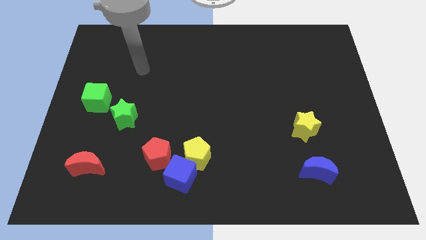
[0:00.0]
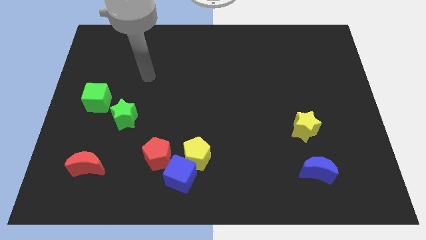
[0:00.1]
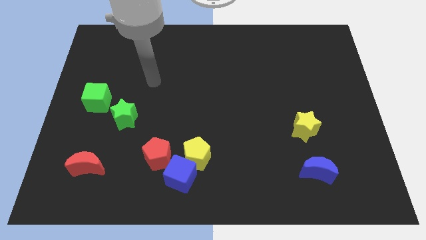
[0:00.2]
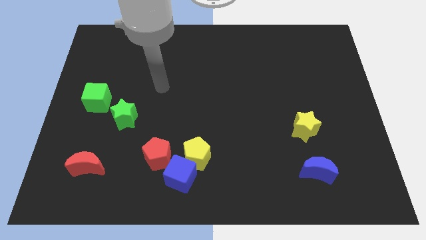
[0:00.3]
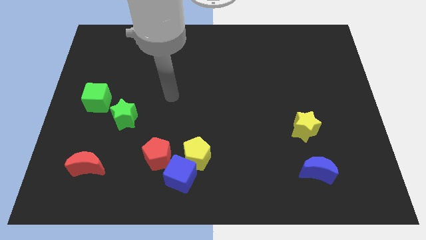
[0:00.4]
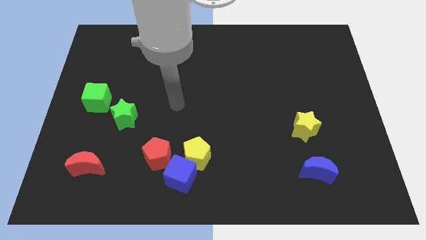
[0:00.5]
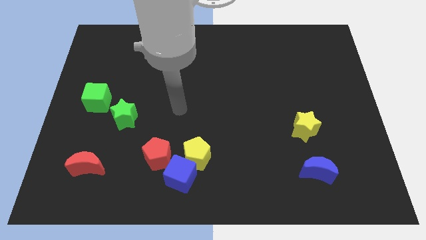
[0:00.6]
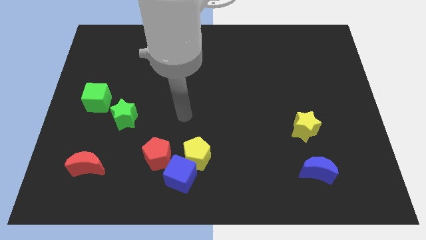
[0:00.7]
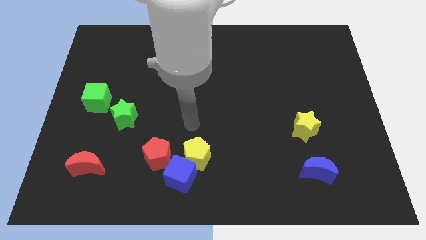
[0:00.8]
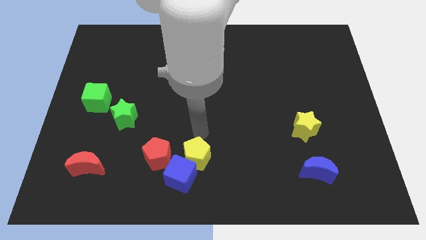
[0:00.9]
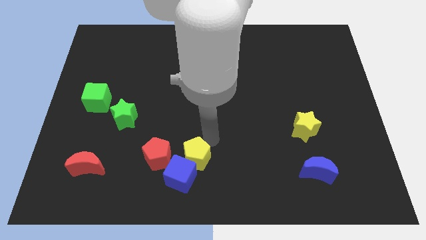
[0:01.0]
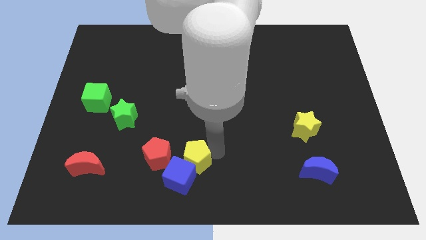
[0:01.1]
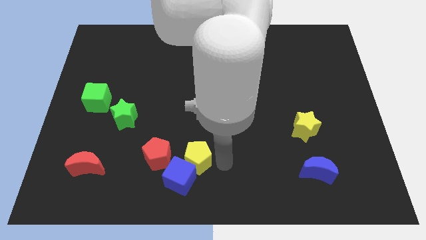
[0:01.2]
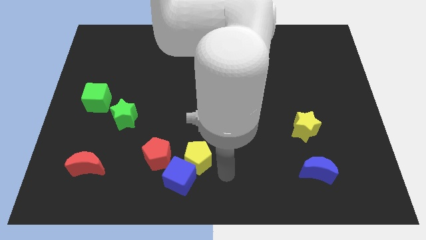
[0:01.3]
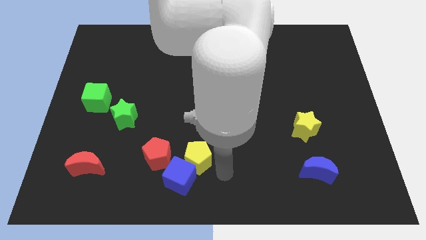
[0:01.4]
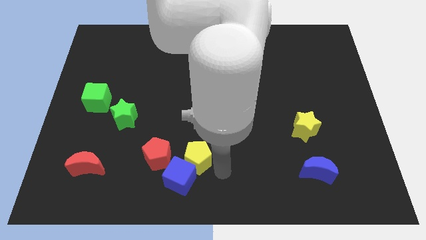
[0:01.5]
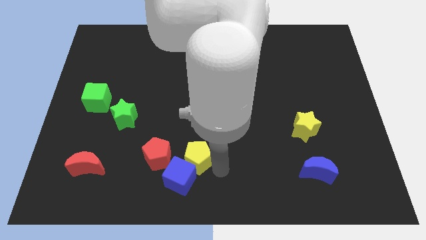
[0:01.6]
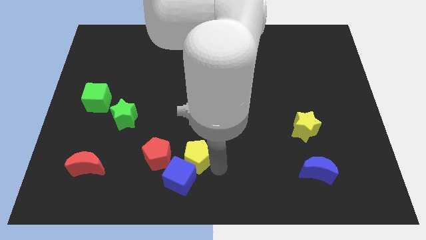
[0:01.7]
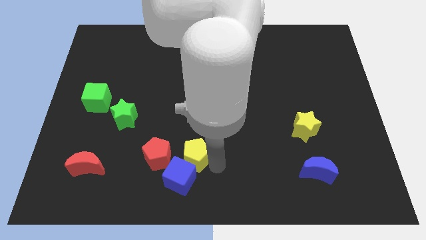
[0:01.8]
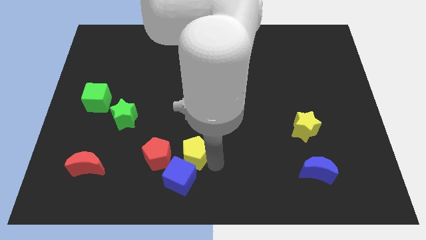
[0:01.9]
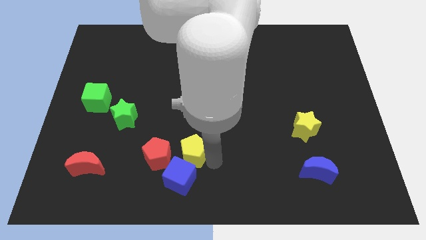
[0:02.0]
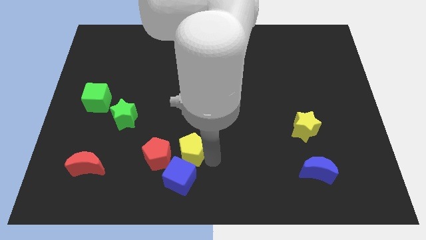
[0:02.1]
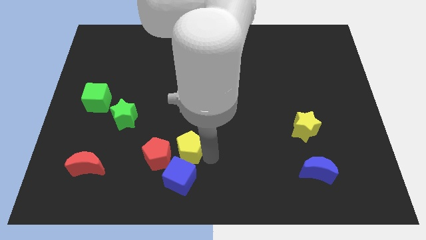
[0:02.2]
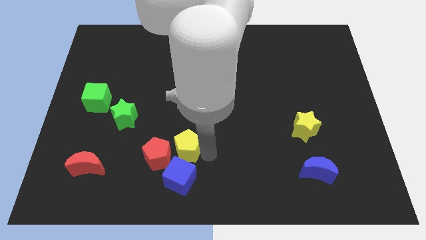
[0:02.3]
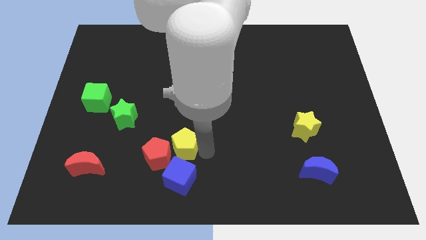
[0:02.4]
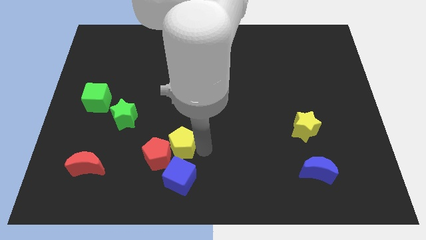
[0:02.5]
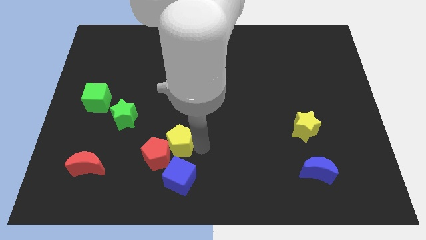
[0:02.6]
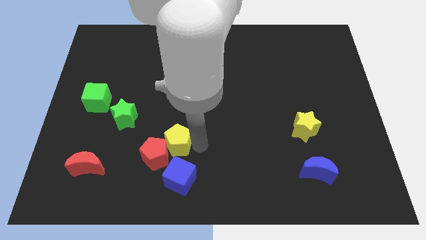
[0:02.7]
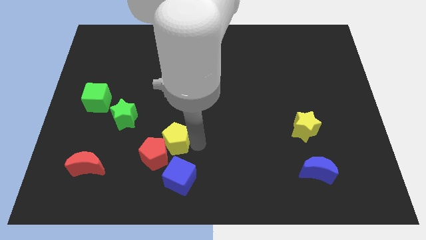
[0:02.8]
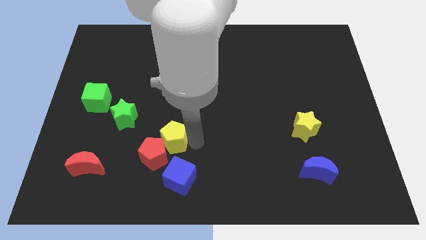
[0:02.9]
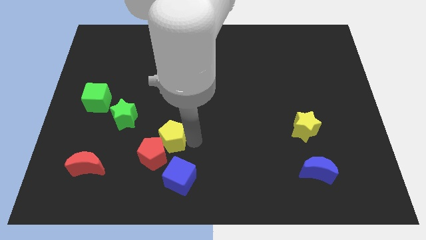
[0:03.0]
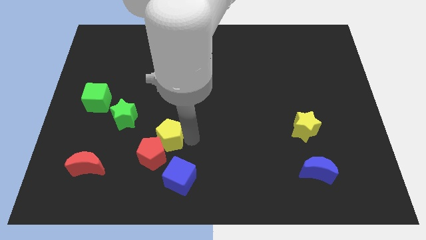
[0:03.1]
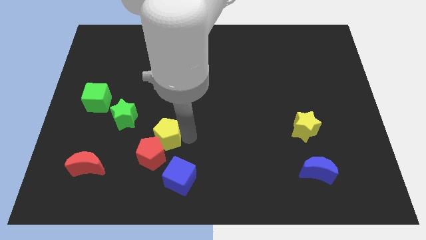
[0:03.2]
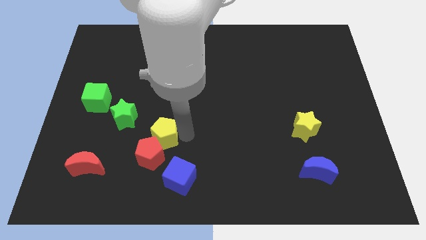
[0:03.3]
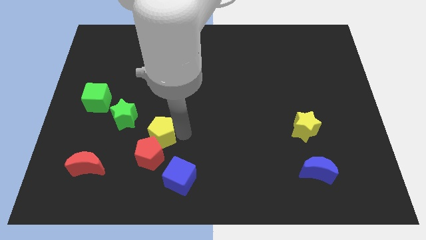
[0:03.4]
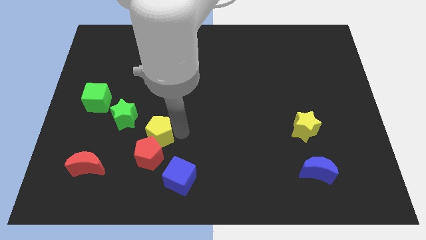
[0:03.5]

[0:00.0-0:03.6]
slightly move the yellow pentagon to the left

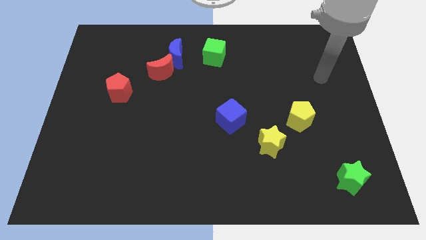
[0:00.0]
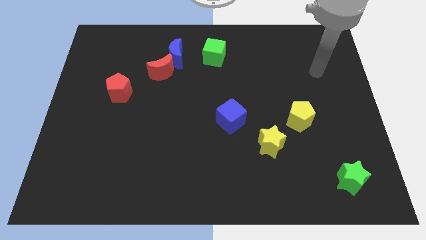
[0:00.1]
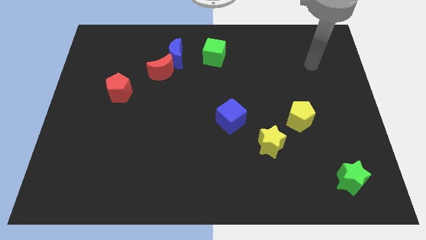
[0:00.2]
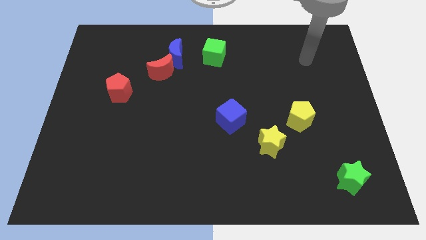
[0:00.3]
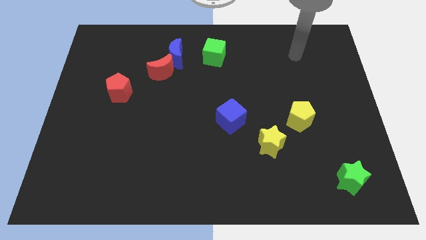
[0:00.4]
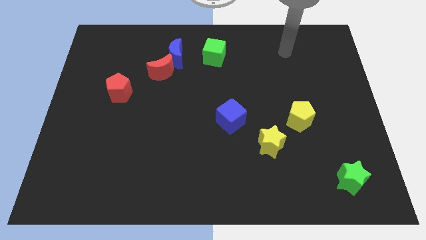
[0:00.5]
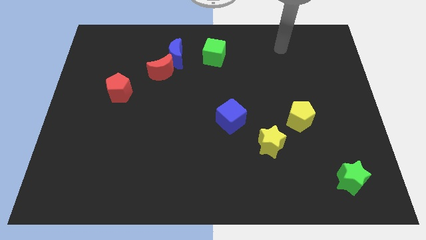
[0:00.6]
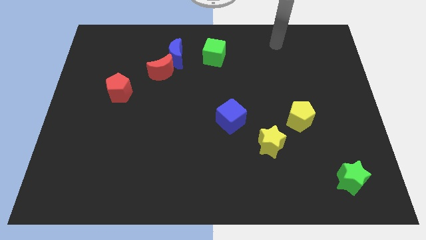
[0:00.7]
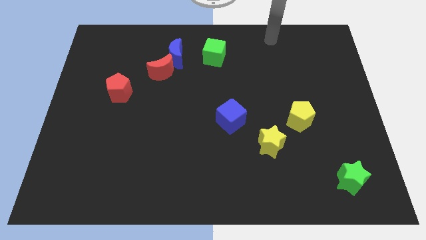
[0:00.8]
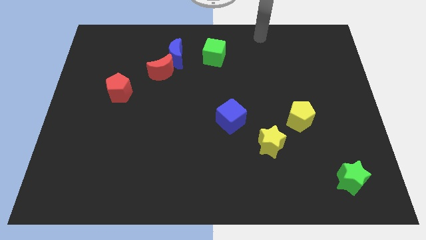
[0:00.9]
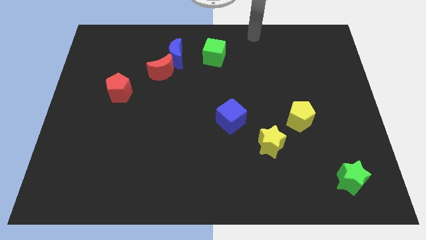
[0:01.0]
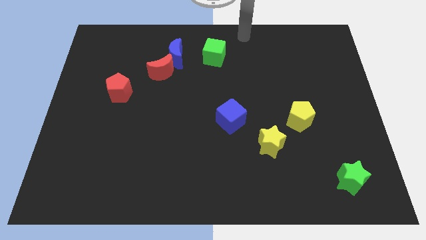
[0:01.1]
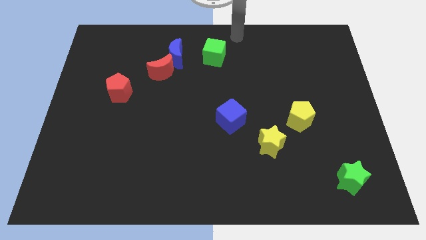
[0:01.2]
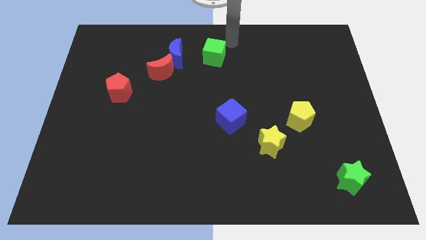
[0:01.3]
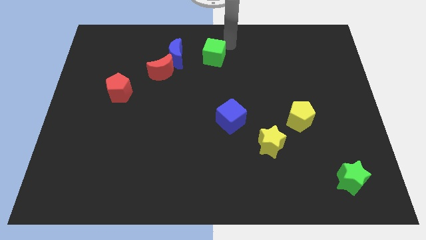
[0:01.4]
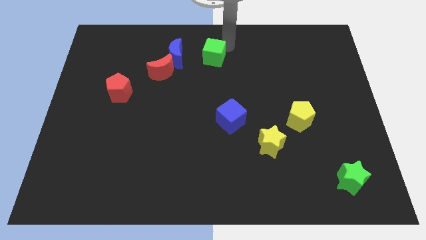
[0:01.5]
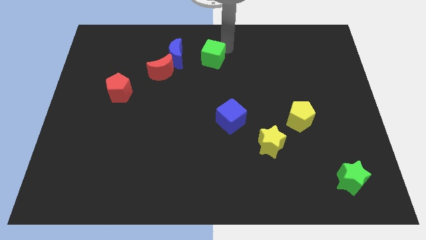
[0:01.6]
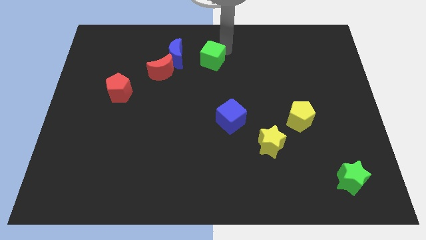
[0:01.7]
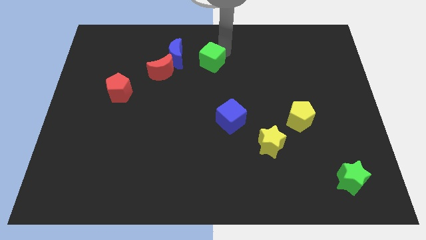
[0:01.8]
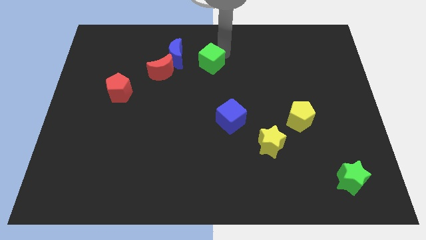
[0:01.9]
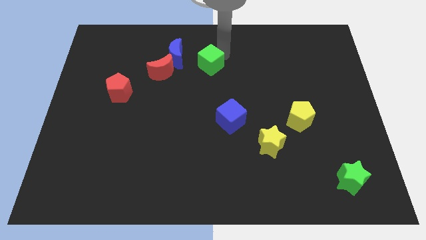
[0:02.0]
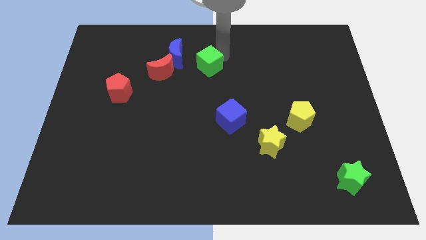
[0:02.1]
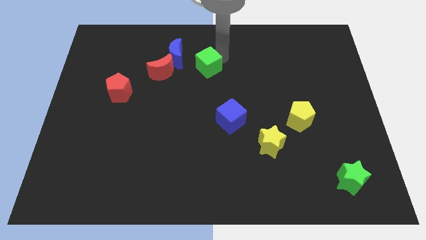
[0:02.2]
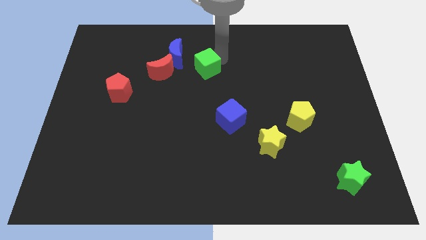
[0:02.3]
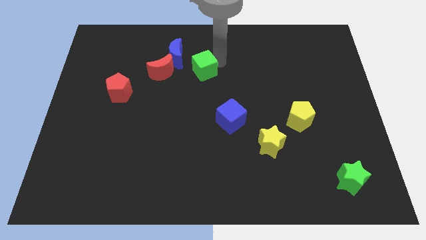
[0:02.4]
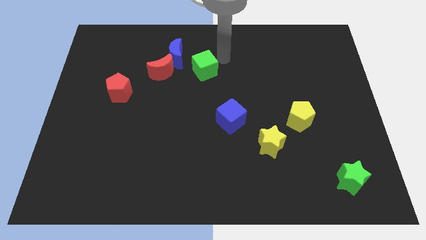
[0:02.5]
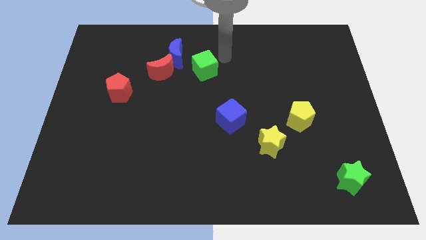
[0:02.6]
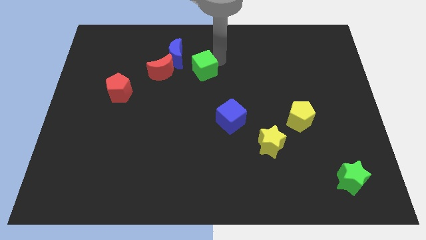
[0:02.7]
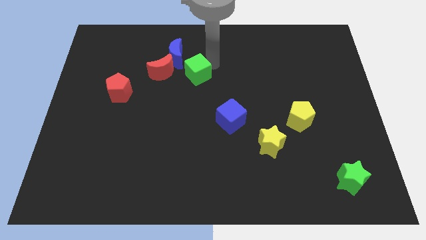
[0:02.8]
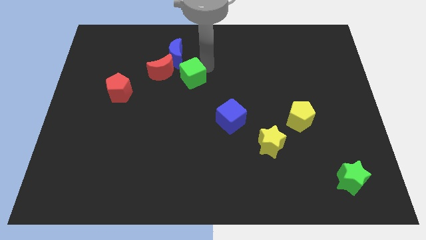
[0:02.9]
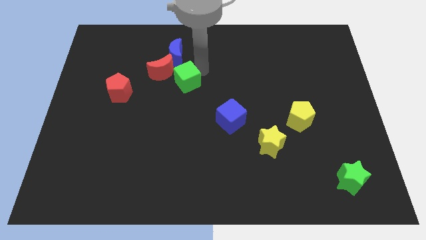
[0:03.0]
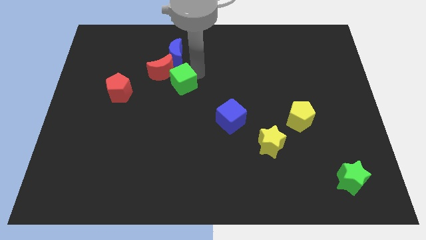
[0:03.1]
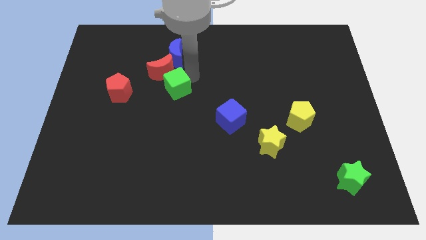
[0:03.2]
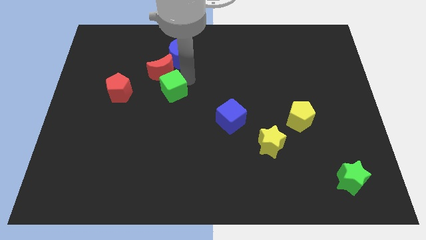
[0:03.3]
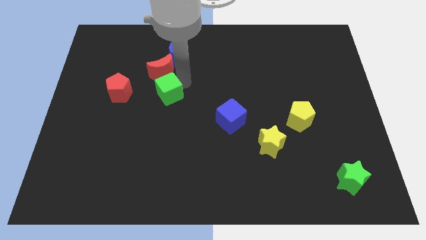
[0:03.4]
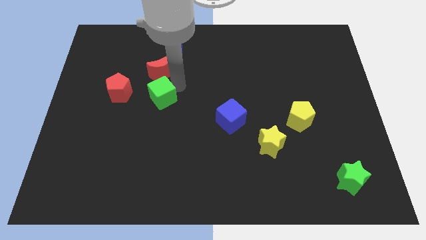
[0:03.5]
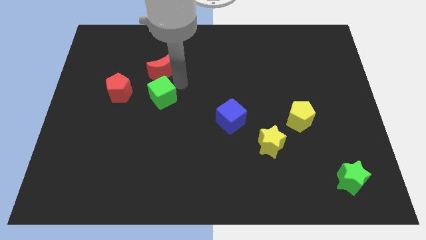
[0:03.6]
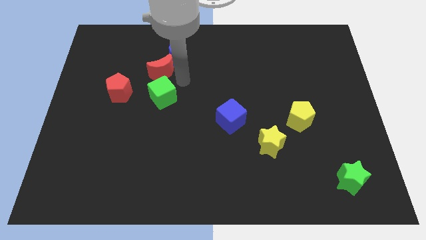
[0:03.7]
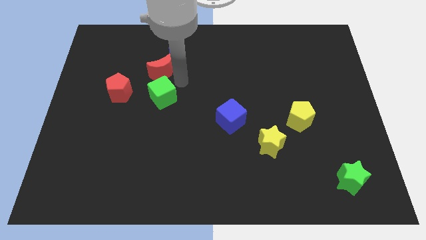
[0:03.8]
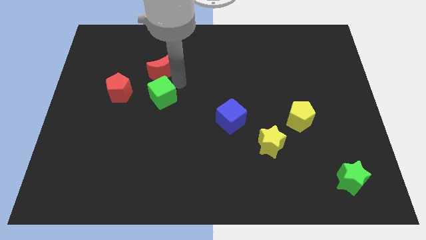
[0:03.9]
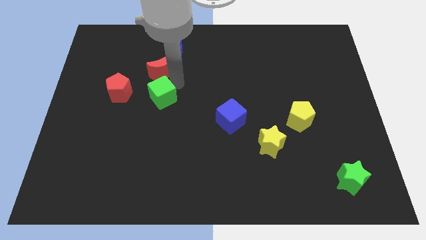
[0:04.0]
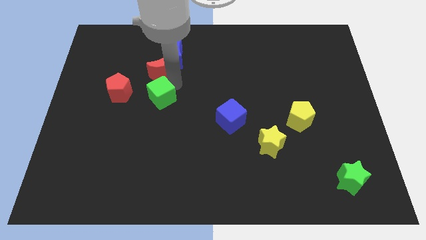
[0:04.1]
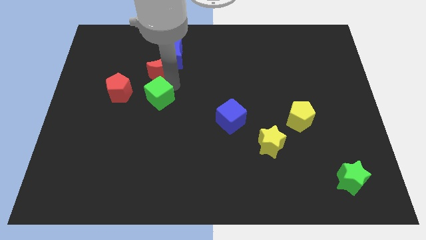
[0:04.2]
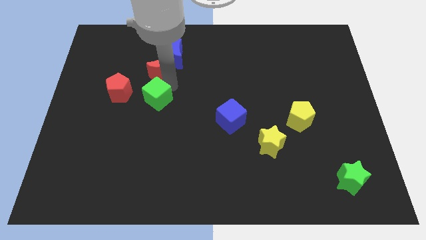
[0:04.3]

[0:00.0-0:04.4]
move the green cube downwards and then left

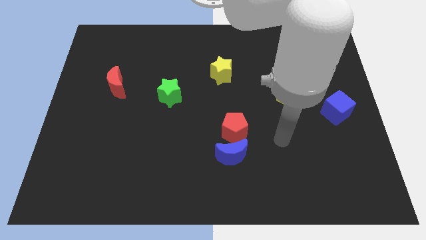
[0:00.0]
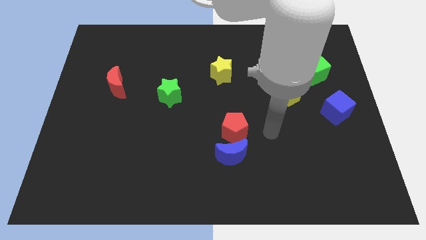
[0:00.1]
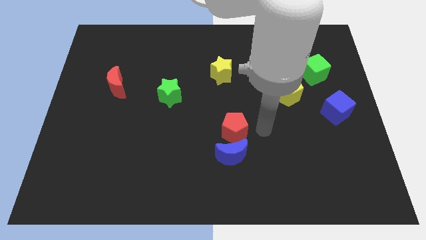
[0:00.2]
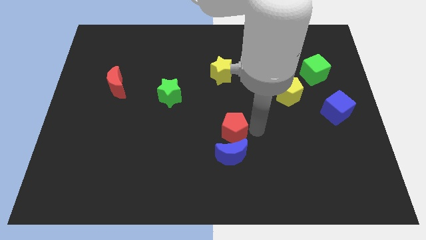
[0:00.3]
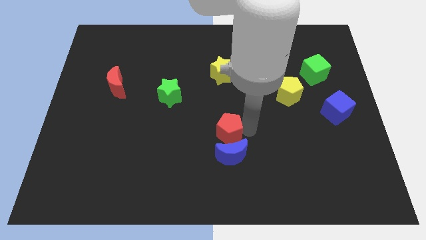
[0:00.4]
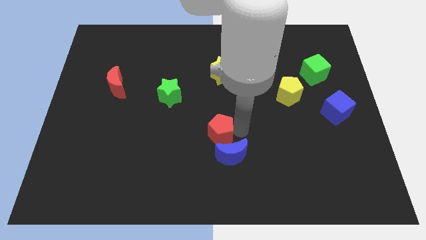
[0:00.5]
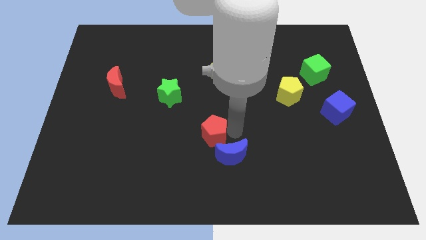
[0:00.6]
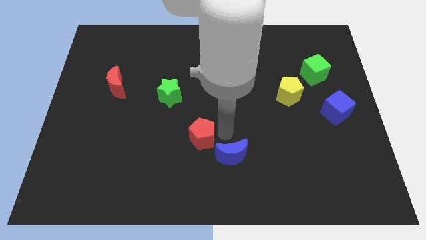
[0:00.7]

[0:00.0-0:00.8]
slightly push the red pentagon left
